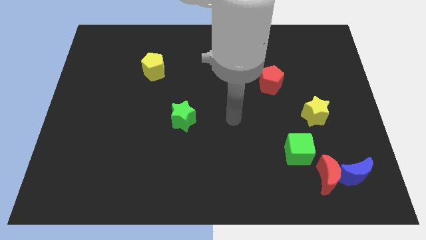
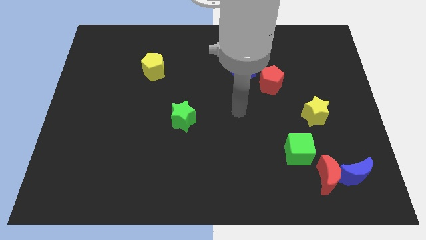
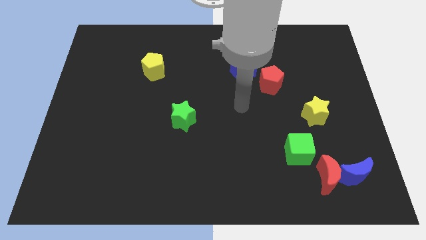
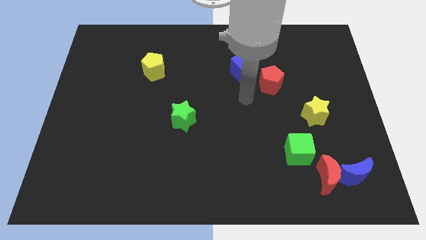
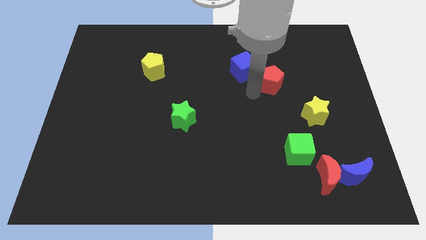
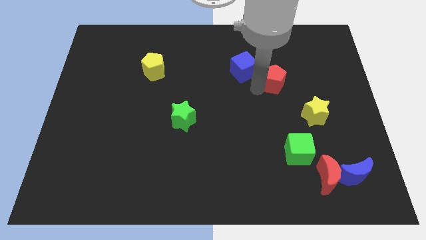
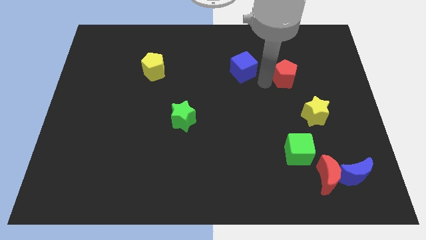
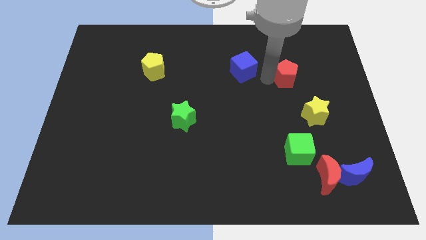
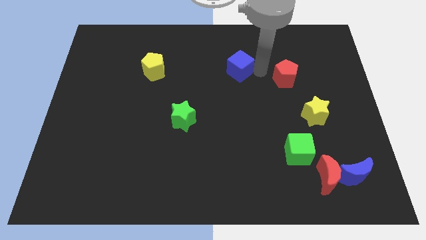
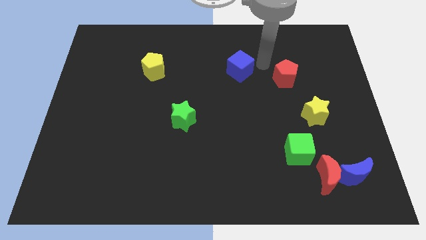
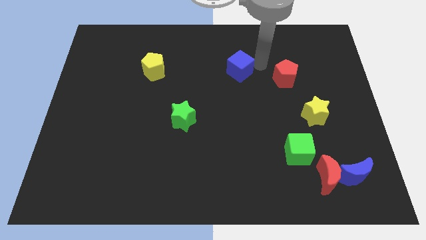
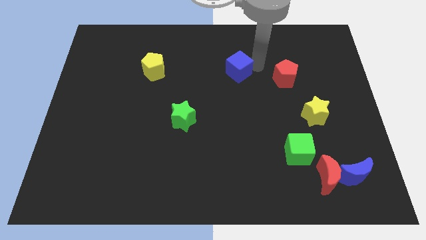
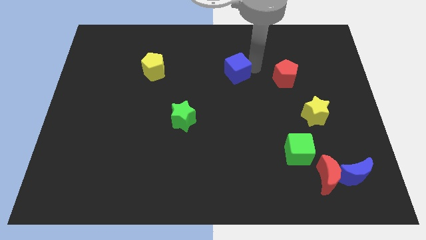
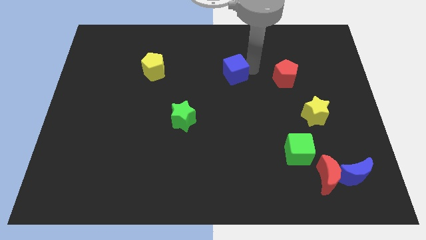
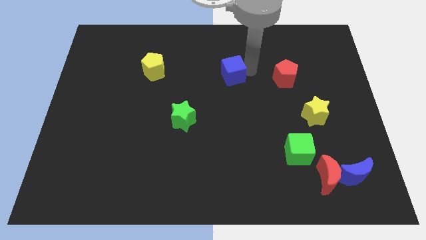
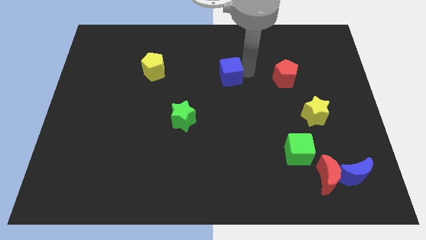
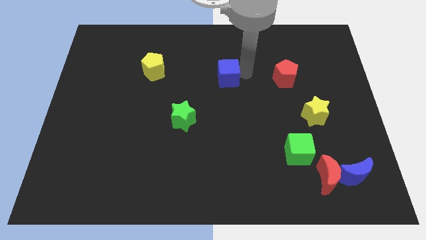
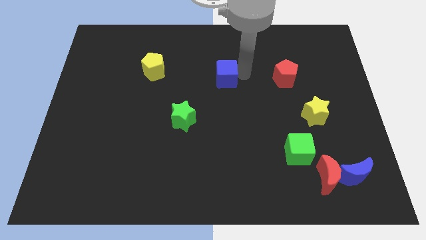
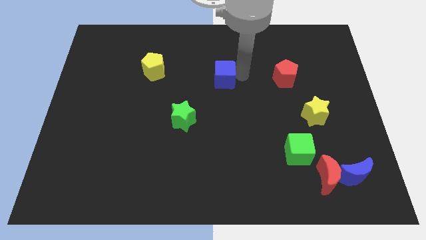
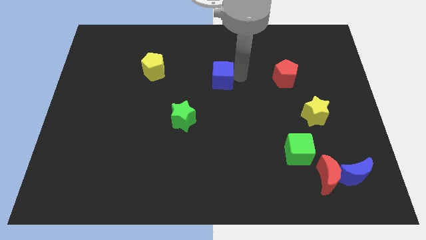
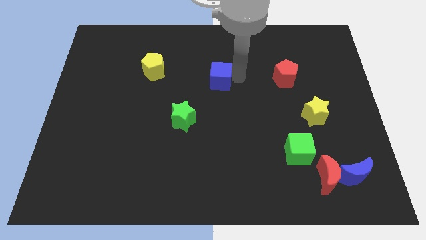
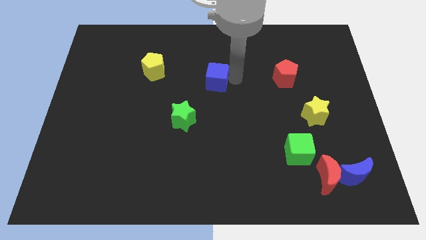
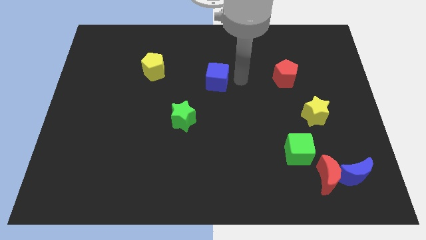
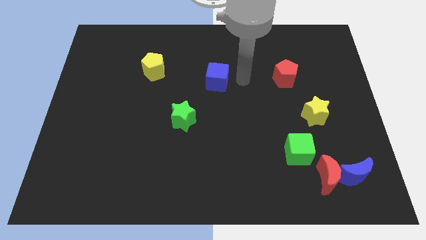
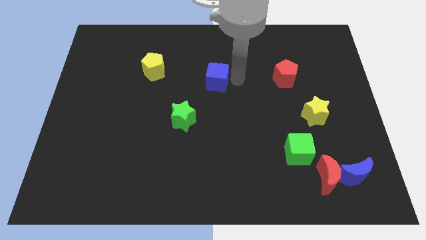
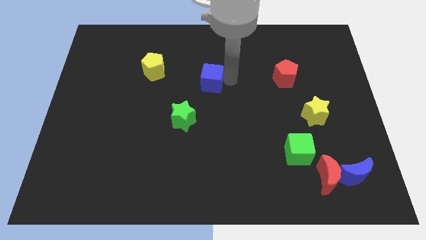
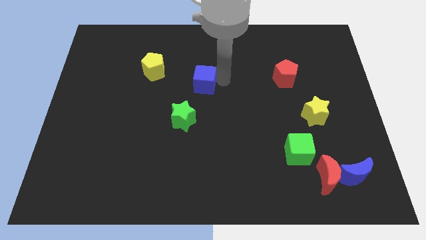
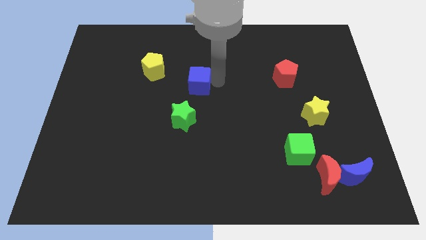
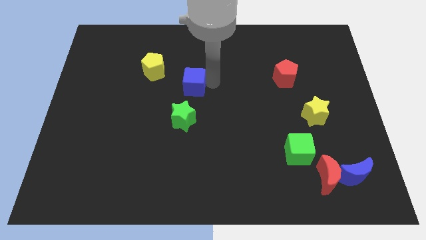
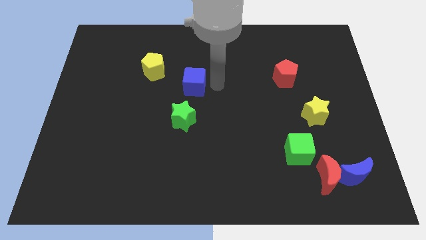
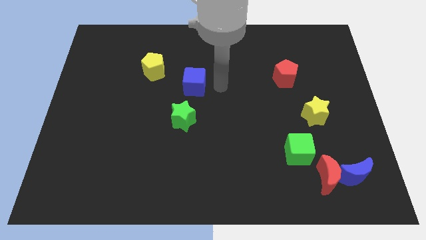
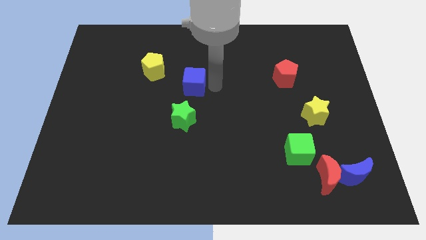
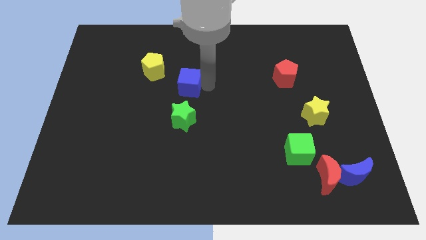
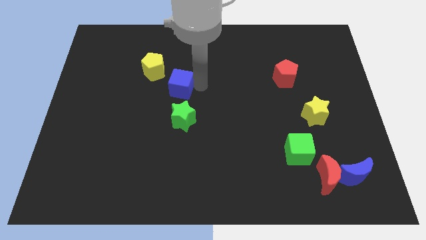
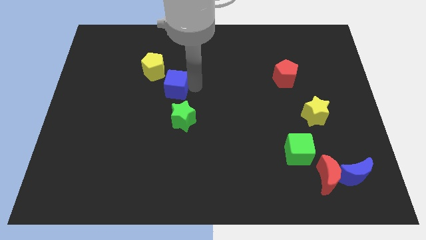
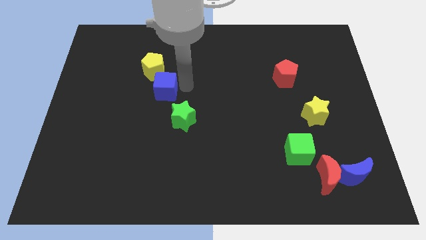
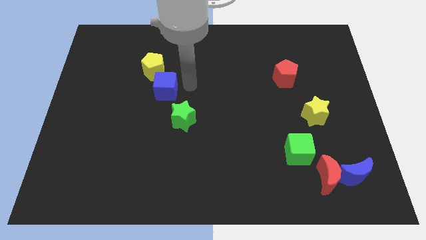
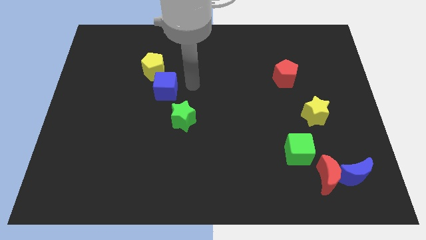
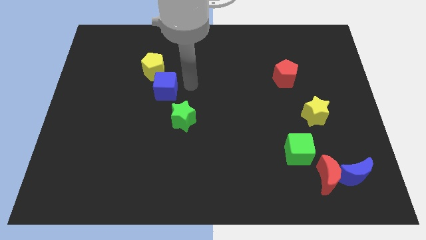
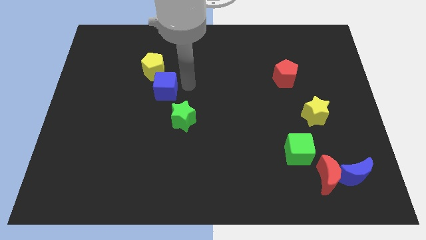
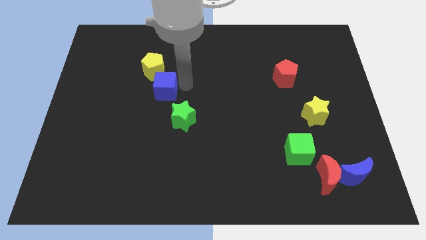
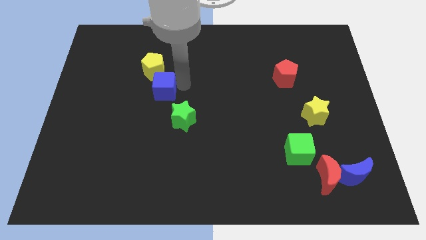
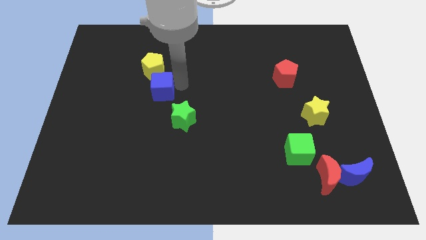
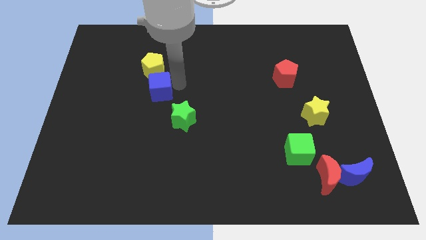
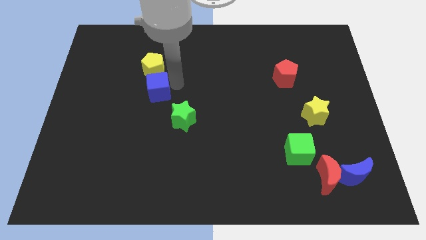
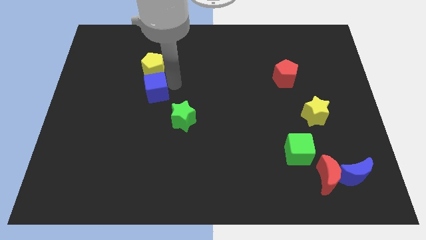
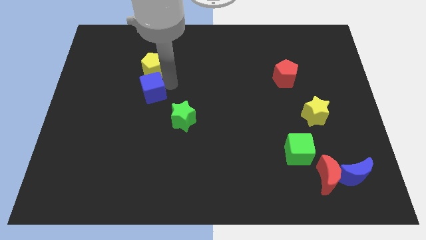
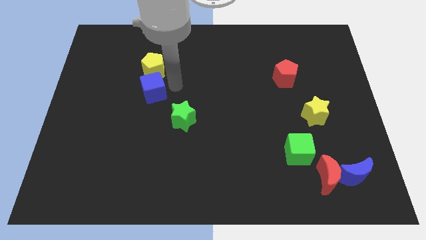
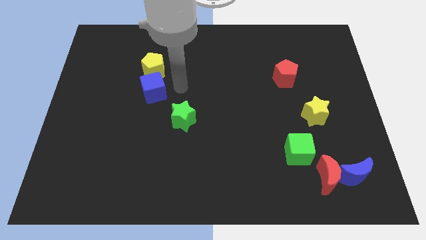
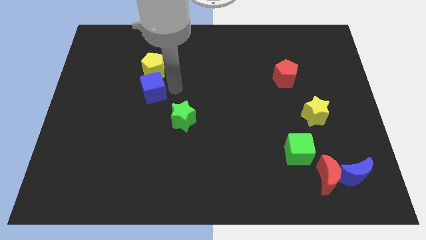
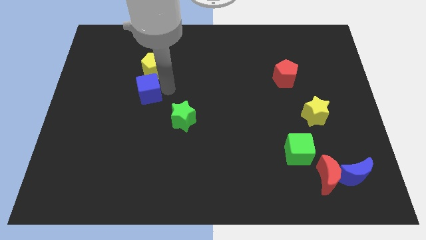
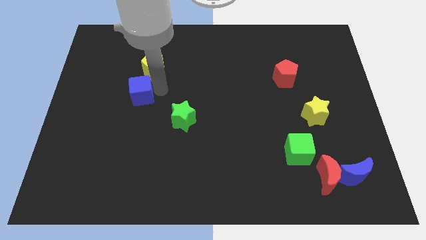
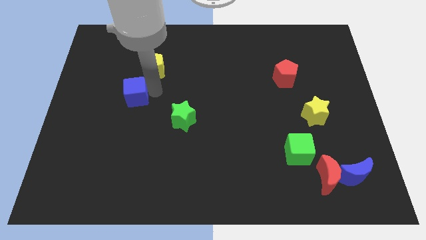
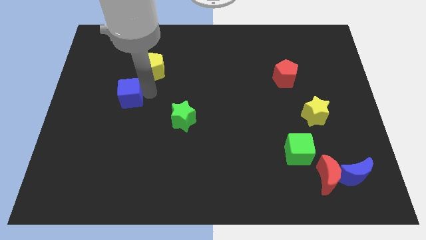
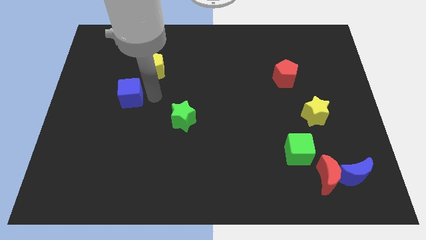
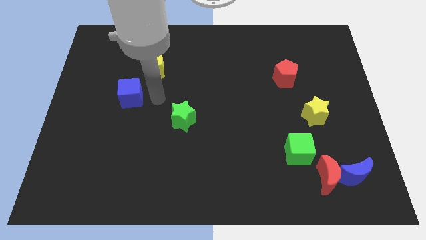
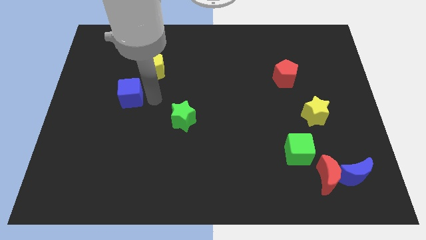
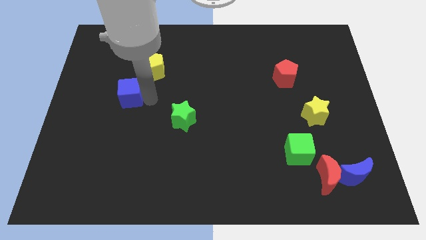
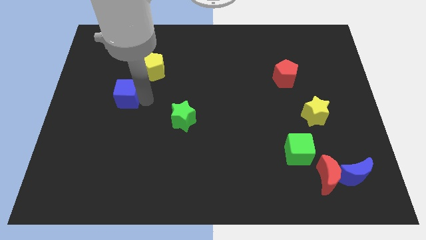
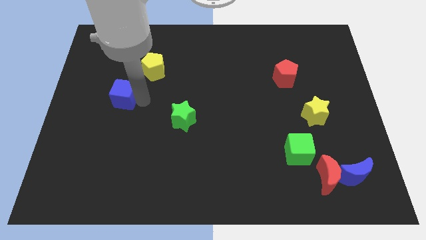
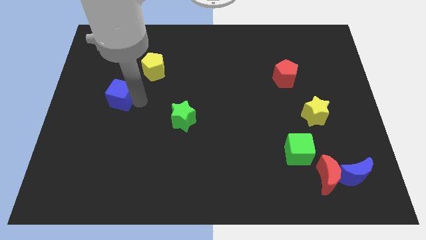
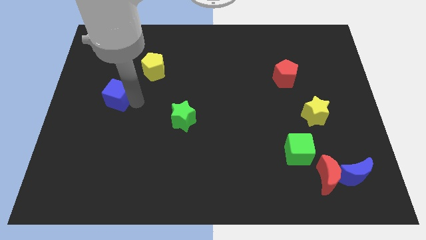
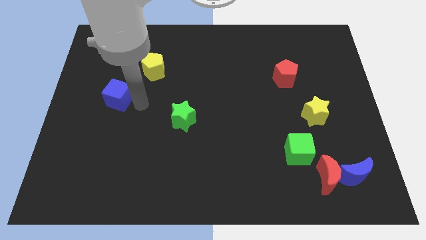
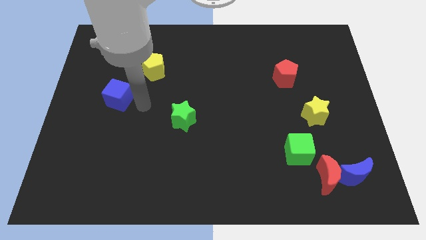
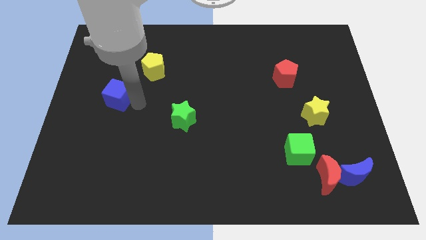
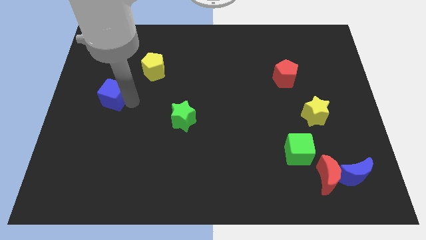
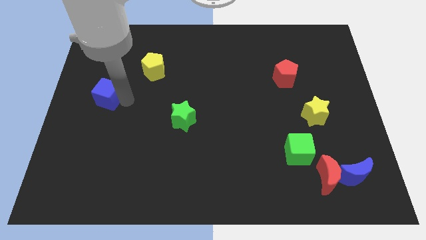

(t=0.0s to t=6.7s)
slide the blue cube to the left side
